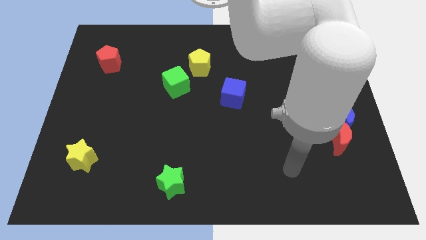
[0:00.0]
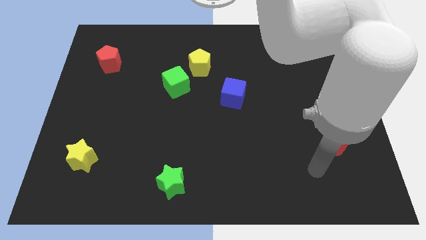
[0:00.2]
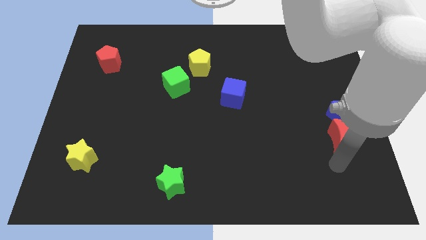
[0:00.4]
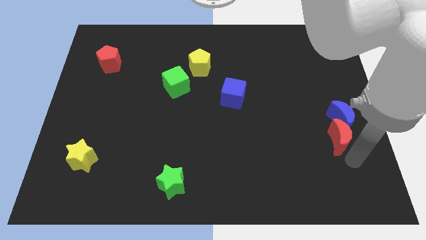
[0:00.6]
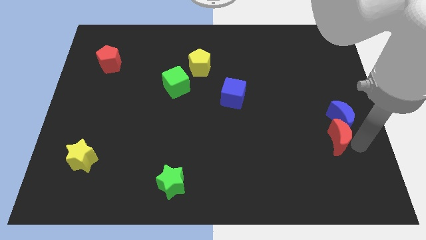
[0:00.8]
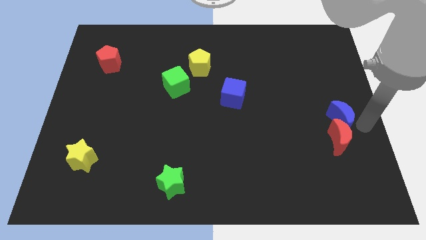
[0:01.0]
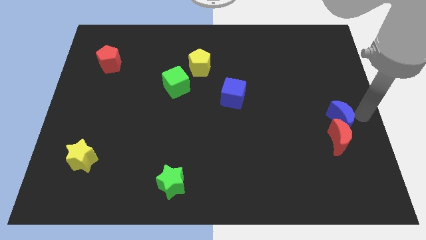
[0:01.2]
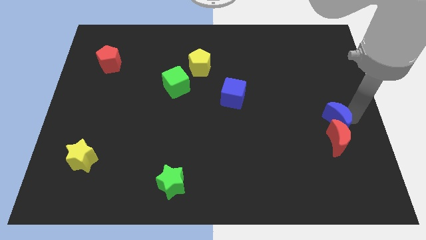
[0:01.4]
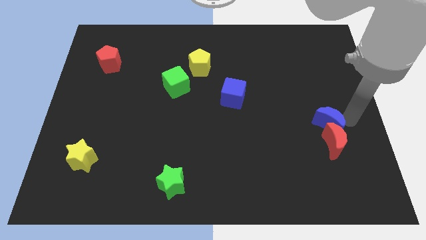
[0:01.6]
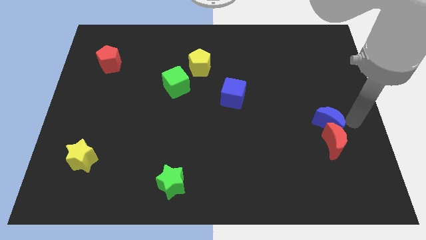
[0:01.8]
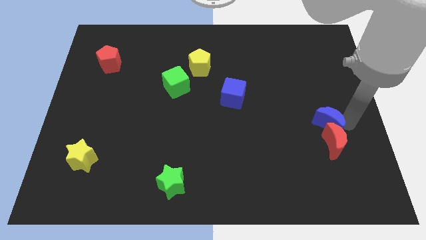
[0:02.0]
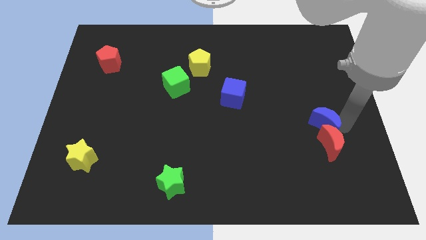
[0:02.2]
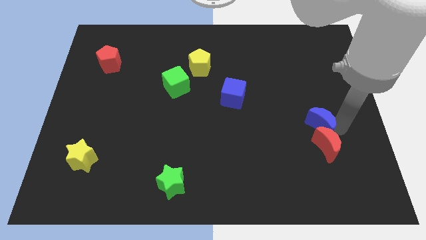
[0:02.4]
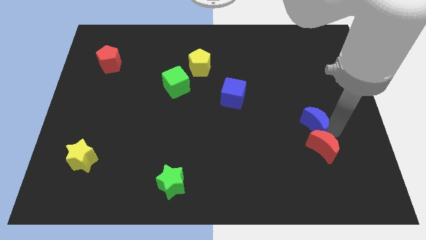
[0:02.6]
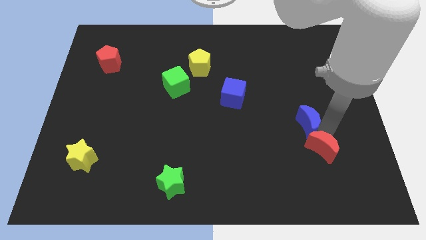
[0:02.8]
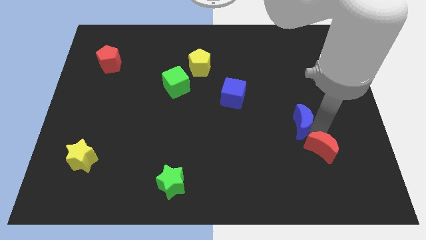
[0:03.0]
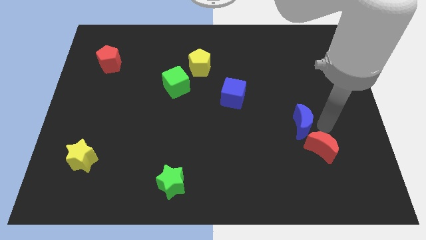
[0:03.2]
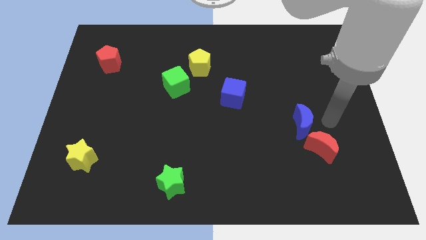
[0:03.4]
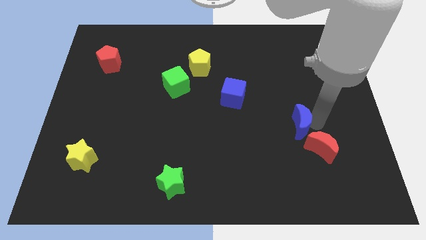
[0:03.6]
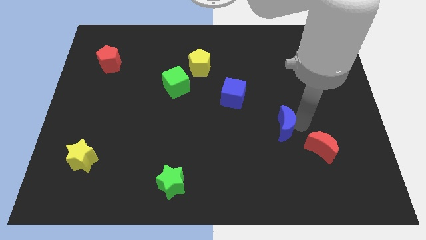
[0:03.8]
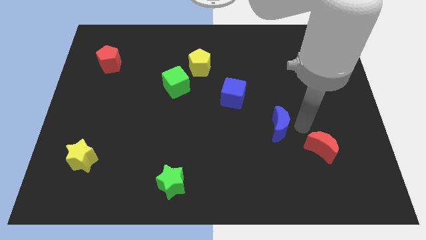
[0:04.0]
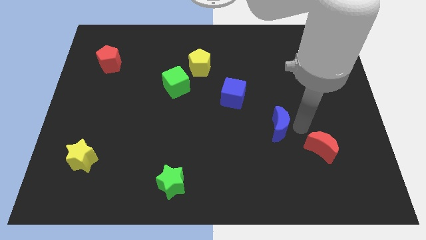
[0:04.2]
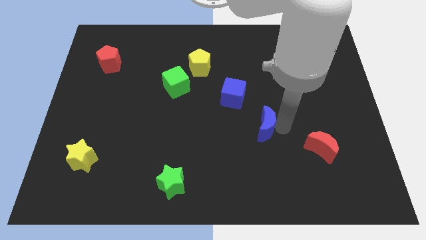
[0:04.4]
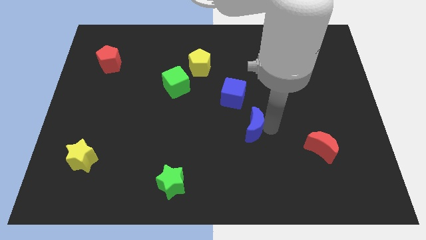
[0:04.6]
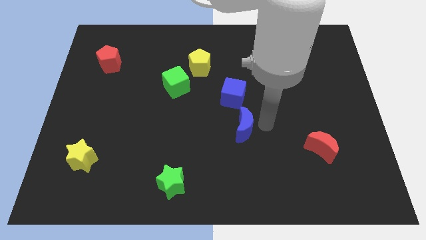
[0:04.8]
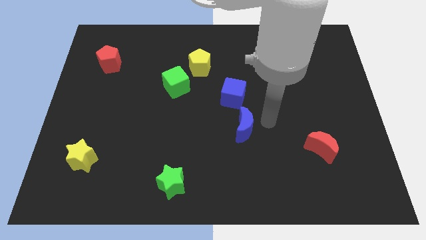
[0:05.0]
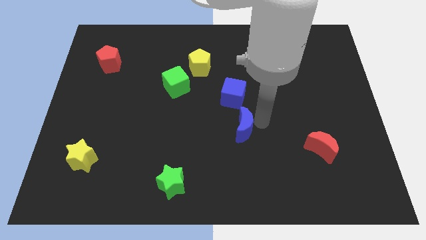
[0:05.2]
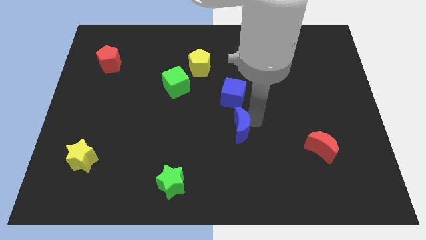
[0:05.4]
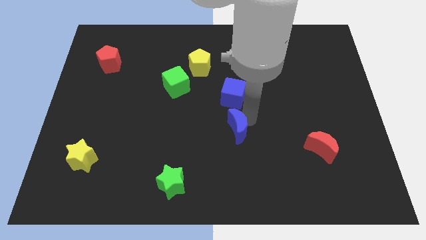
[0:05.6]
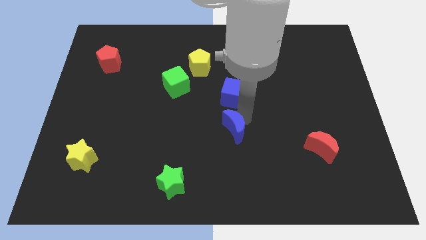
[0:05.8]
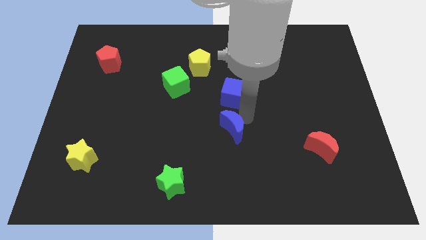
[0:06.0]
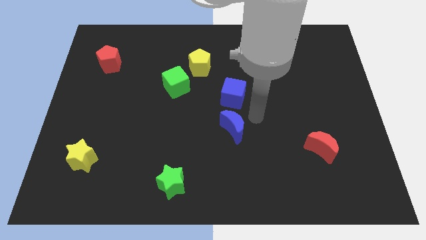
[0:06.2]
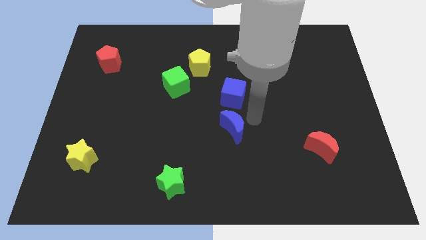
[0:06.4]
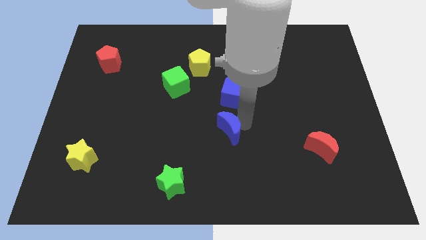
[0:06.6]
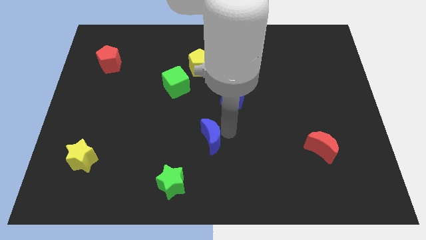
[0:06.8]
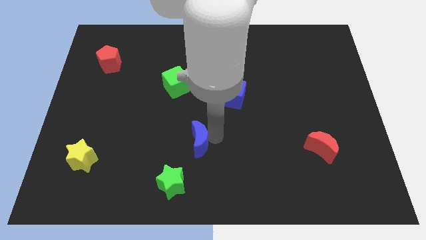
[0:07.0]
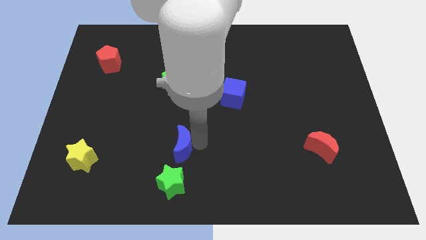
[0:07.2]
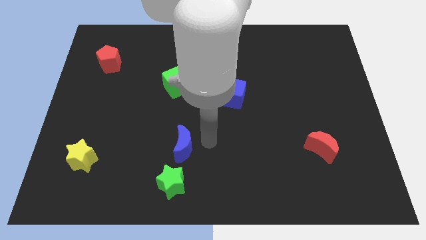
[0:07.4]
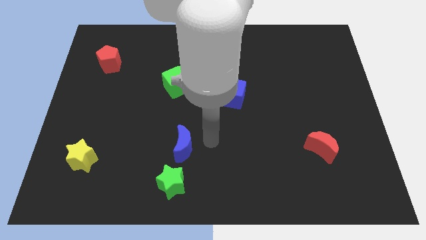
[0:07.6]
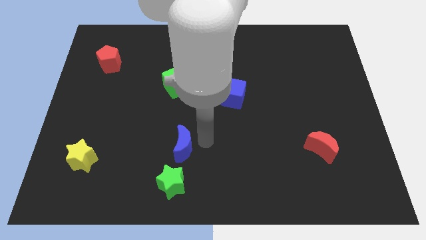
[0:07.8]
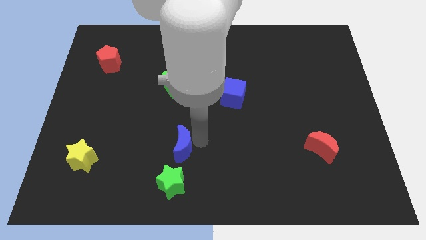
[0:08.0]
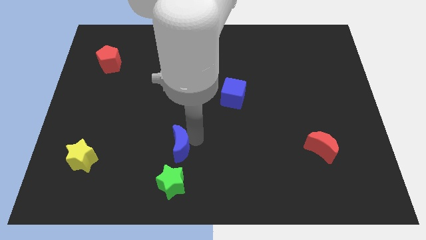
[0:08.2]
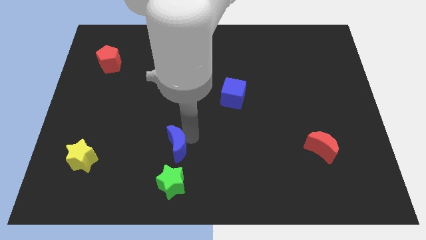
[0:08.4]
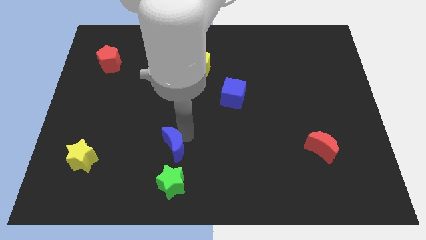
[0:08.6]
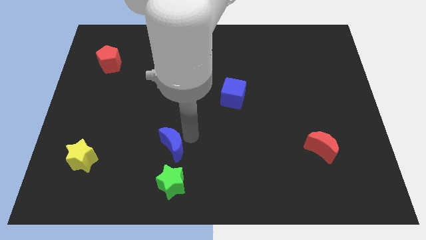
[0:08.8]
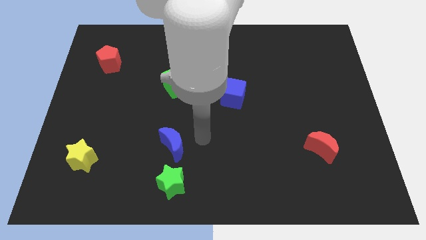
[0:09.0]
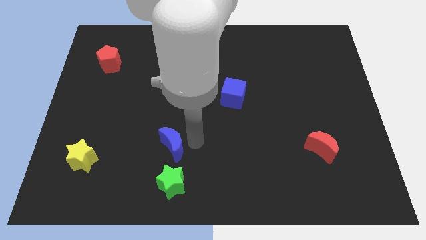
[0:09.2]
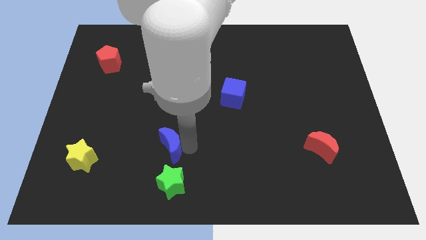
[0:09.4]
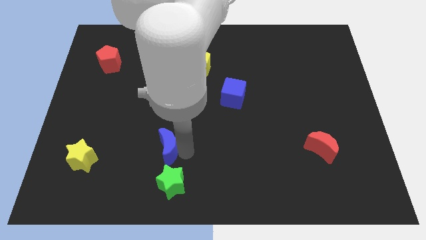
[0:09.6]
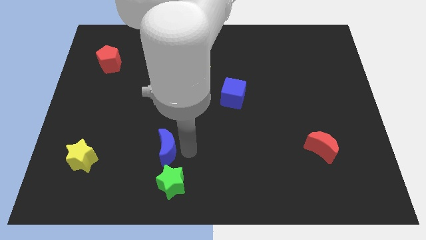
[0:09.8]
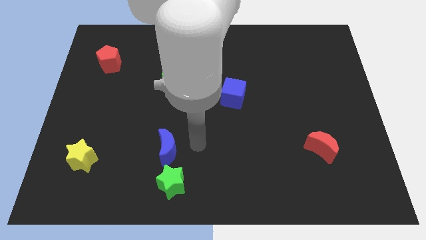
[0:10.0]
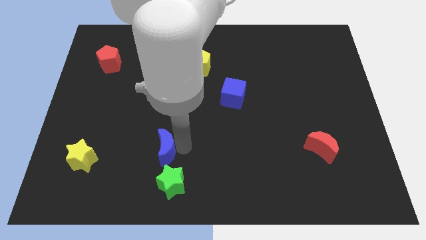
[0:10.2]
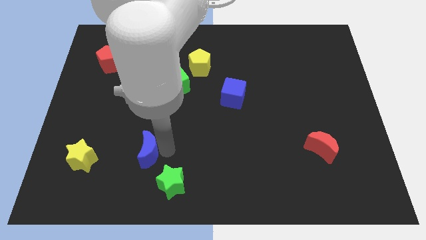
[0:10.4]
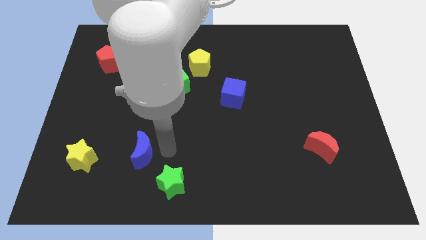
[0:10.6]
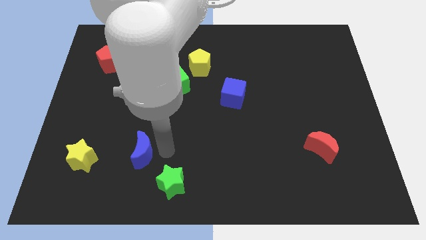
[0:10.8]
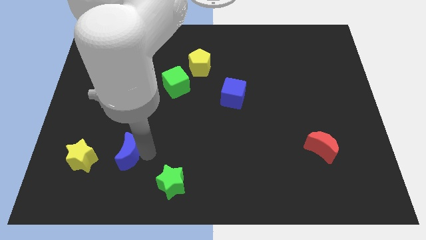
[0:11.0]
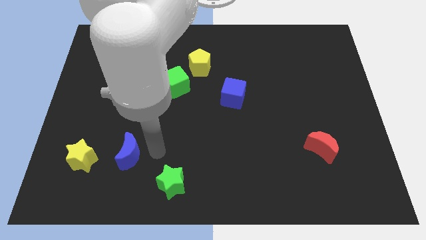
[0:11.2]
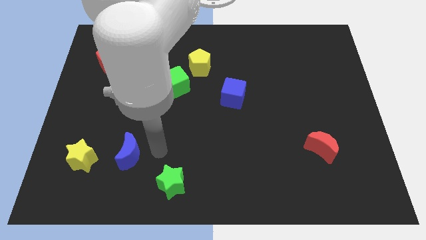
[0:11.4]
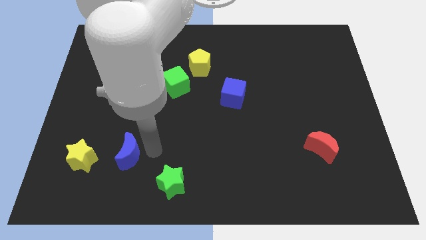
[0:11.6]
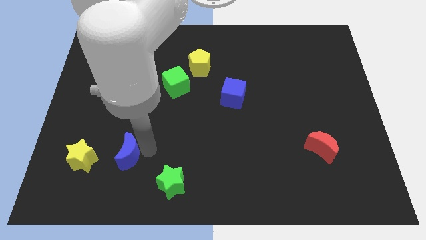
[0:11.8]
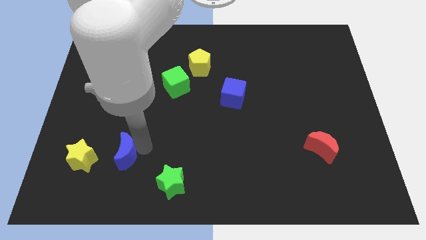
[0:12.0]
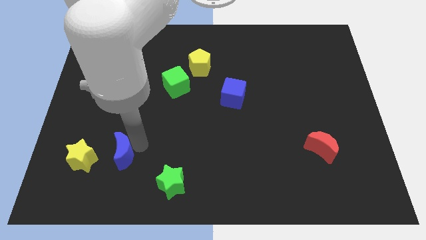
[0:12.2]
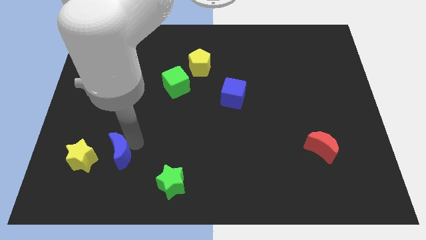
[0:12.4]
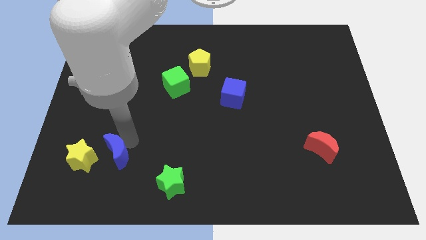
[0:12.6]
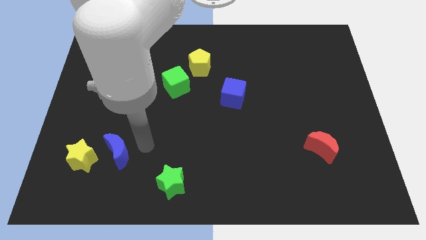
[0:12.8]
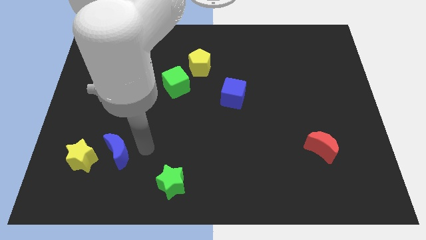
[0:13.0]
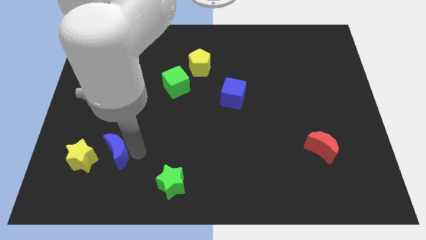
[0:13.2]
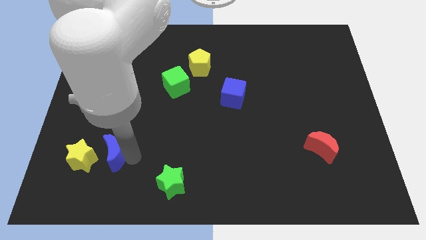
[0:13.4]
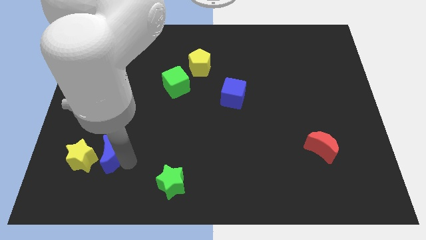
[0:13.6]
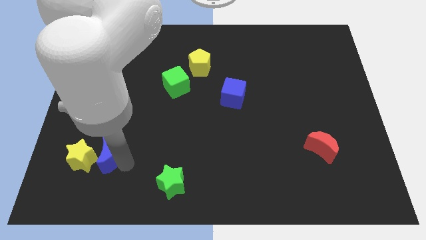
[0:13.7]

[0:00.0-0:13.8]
slide the blue moon close to the yellow star

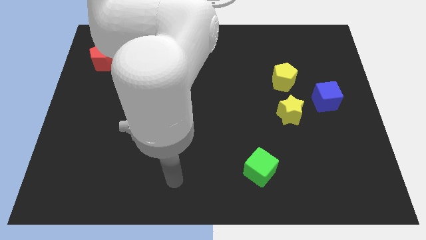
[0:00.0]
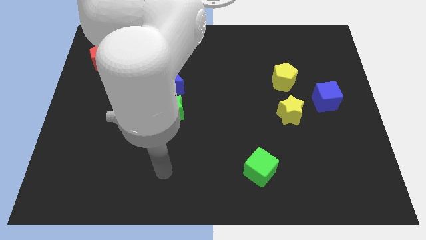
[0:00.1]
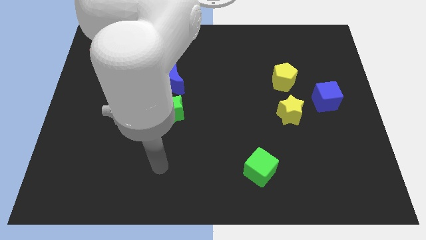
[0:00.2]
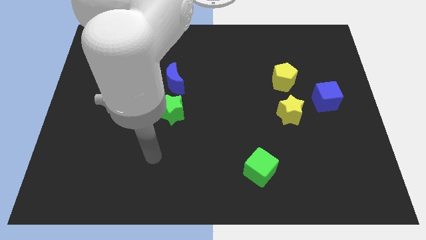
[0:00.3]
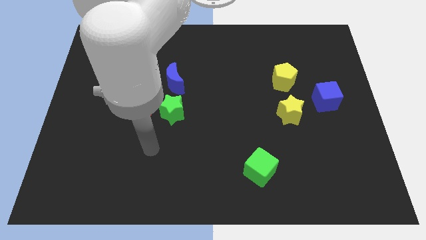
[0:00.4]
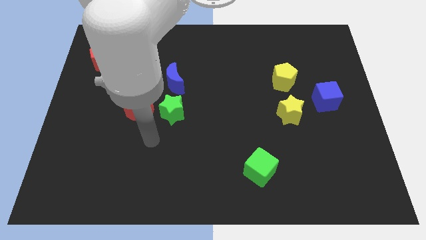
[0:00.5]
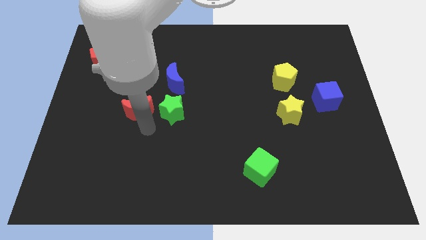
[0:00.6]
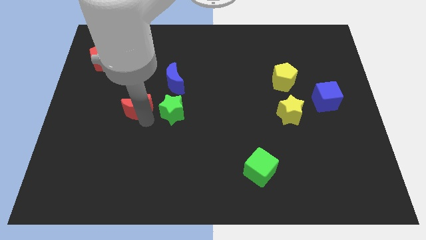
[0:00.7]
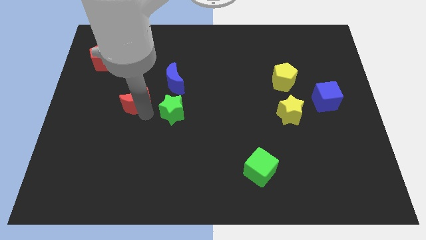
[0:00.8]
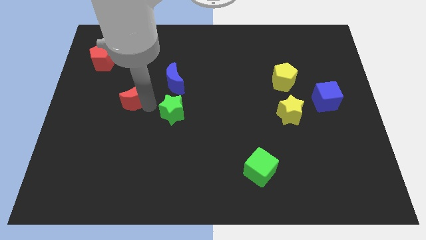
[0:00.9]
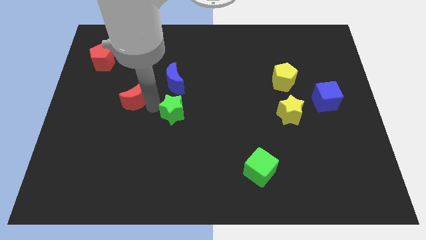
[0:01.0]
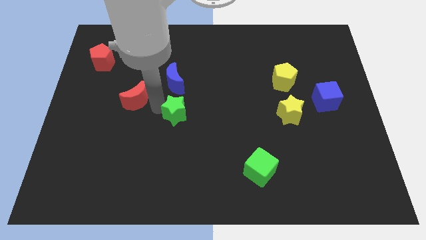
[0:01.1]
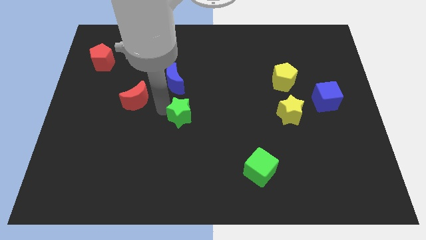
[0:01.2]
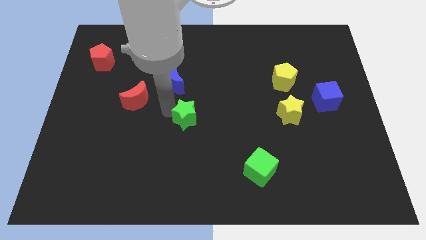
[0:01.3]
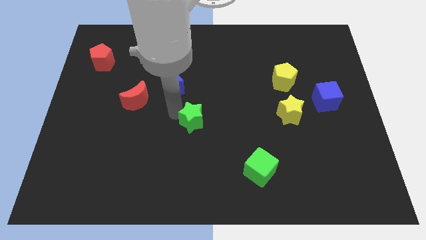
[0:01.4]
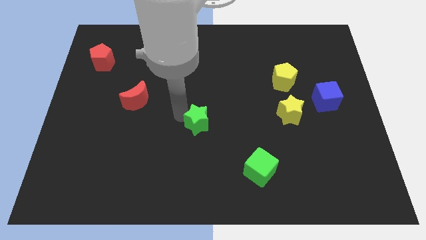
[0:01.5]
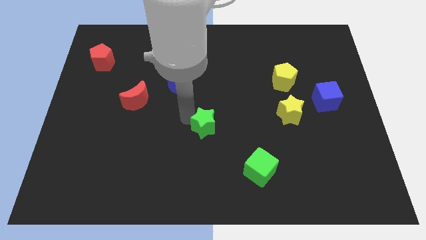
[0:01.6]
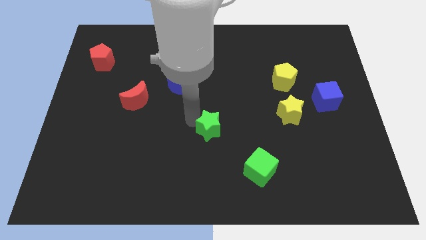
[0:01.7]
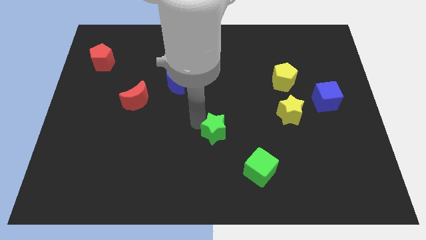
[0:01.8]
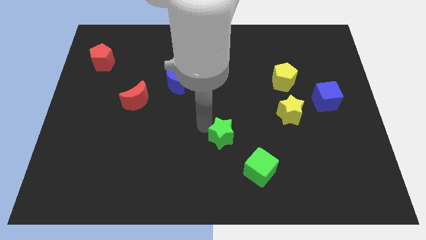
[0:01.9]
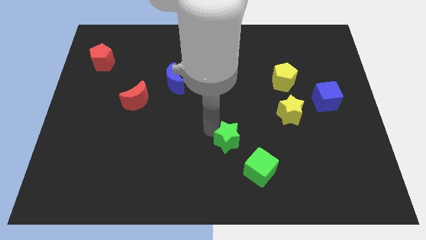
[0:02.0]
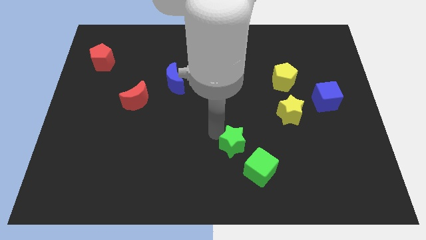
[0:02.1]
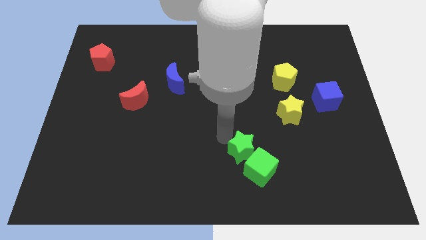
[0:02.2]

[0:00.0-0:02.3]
slide the green star to the green cube
